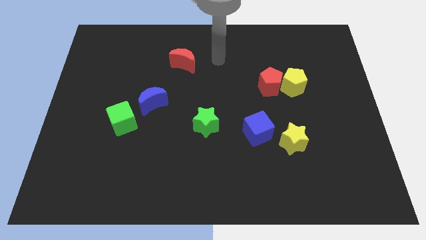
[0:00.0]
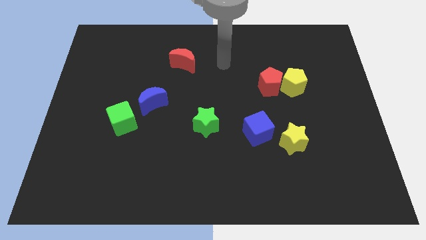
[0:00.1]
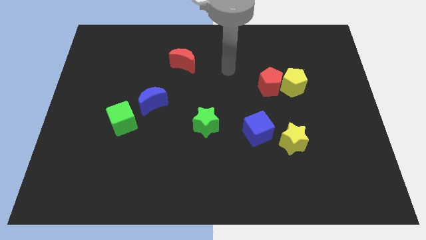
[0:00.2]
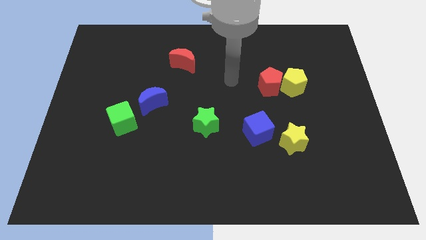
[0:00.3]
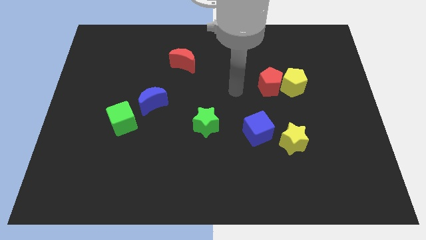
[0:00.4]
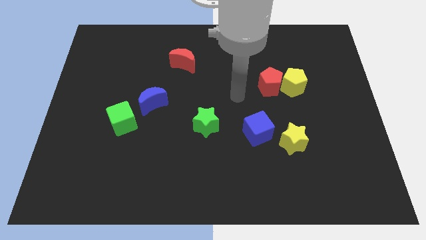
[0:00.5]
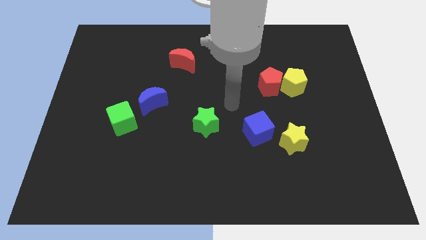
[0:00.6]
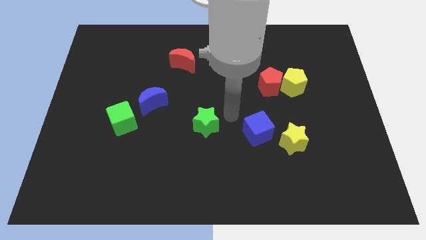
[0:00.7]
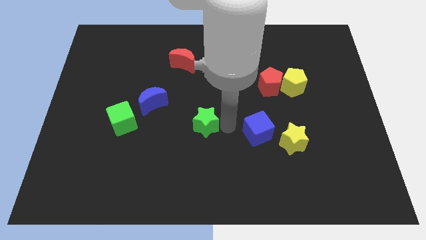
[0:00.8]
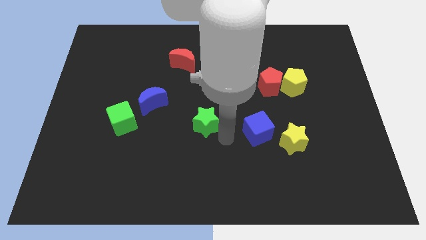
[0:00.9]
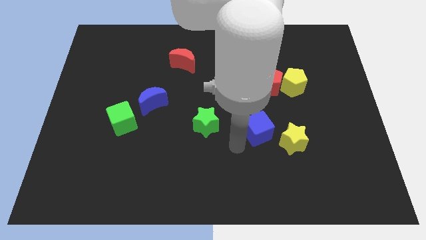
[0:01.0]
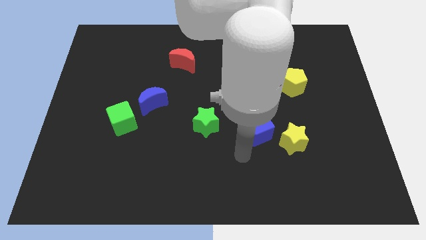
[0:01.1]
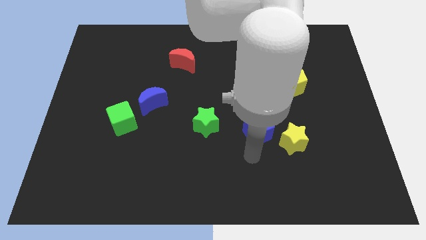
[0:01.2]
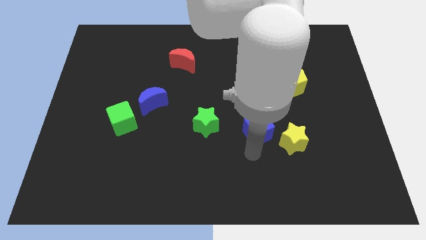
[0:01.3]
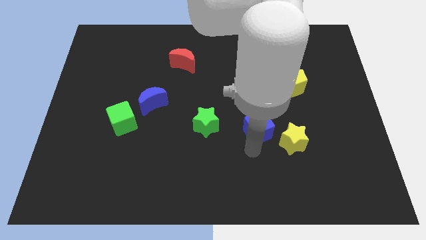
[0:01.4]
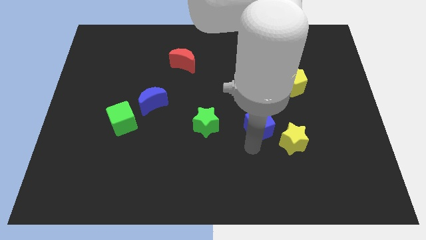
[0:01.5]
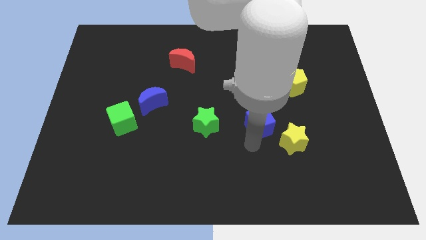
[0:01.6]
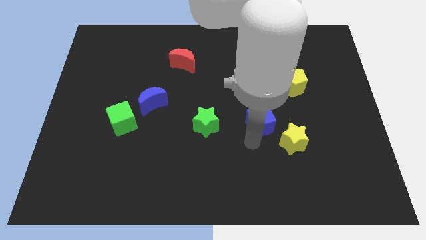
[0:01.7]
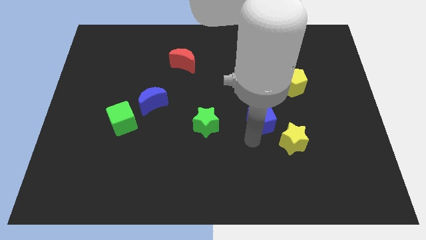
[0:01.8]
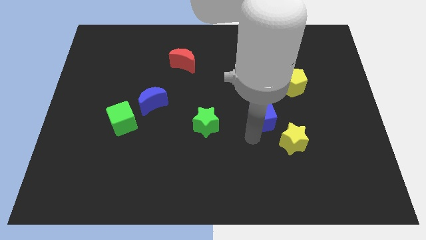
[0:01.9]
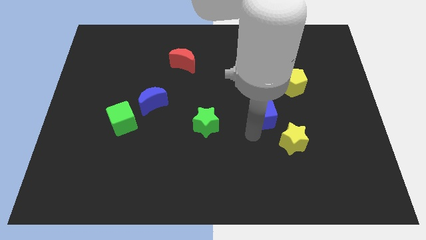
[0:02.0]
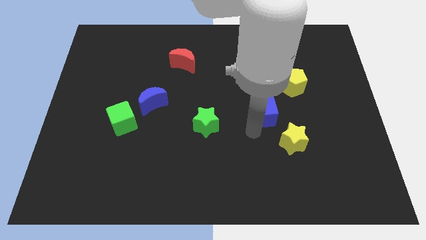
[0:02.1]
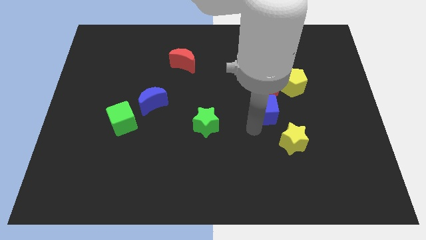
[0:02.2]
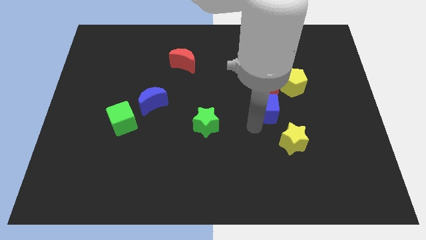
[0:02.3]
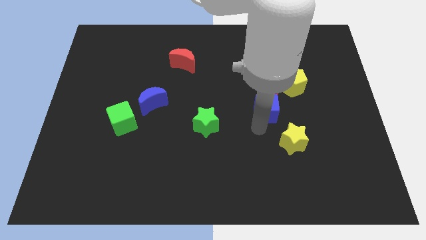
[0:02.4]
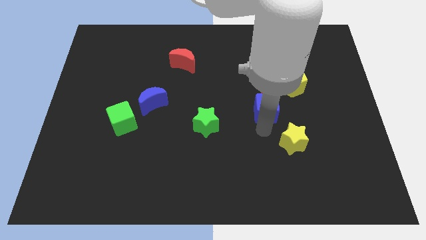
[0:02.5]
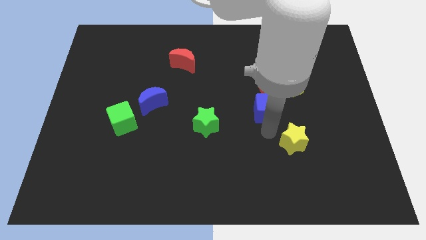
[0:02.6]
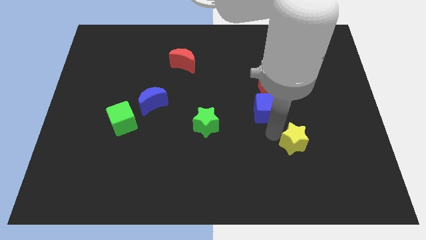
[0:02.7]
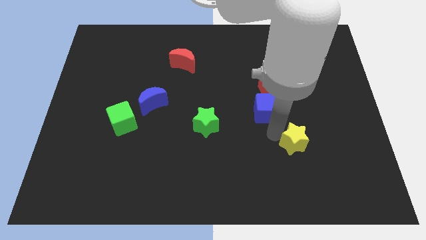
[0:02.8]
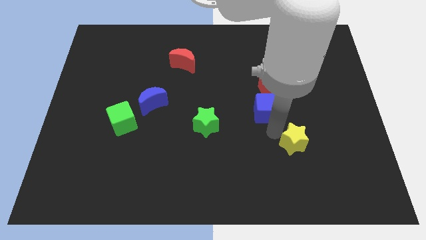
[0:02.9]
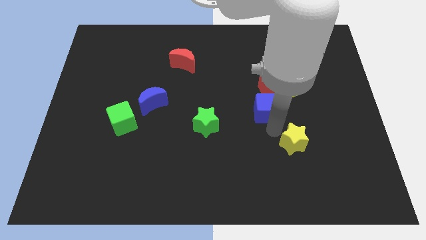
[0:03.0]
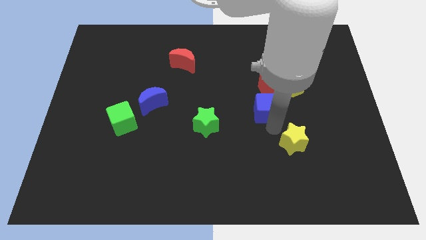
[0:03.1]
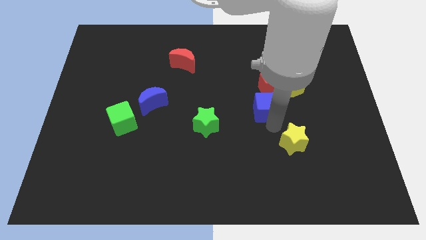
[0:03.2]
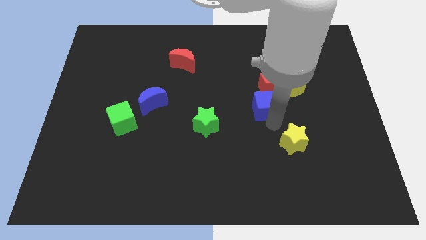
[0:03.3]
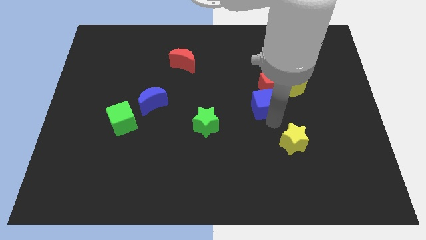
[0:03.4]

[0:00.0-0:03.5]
slightly move the blue cube upwards

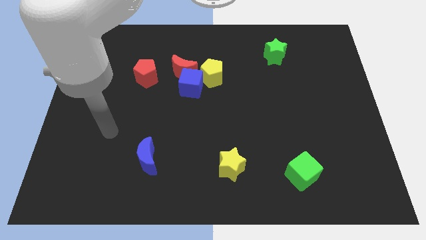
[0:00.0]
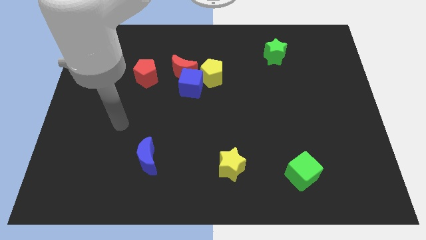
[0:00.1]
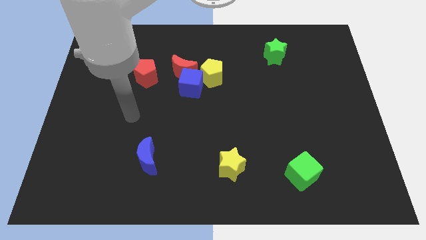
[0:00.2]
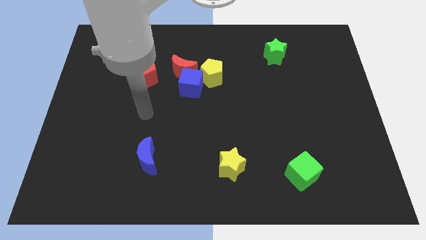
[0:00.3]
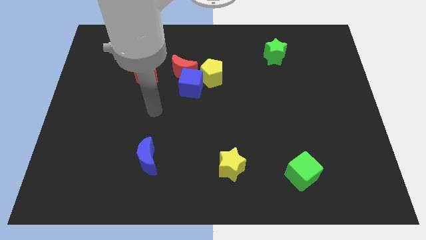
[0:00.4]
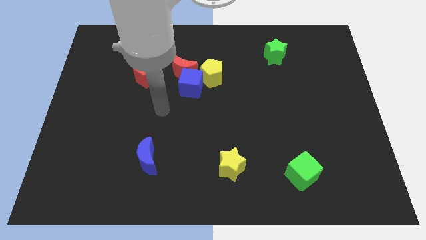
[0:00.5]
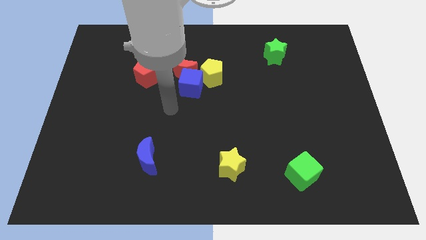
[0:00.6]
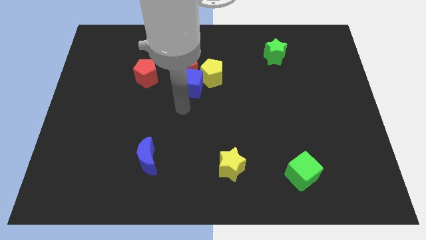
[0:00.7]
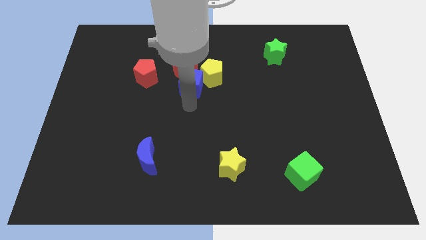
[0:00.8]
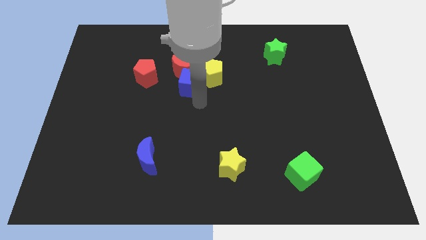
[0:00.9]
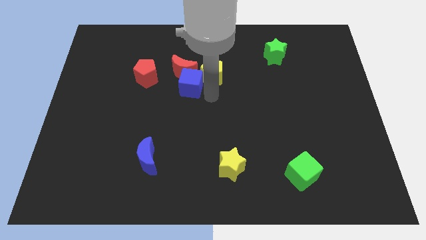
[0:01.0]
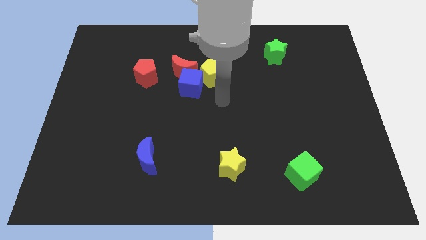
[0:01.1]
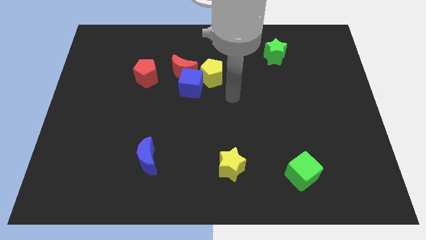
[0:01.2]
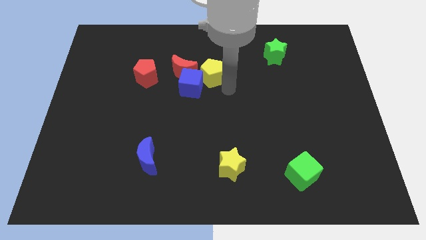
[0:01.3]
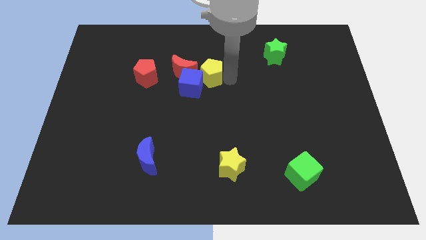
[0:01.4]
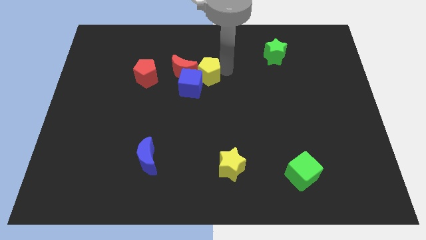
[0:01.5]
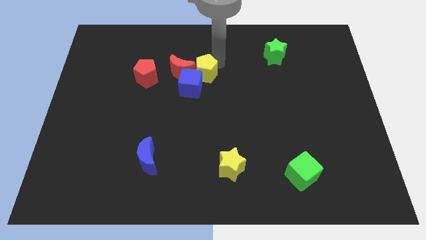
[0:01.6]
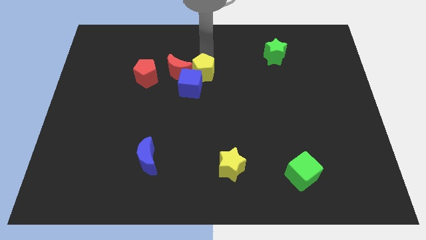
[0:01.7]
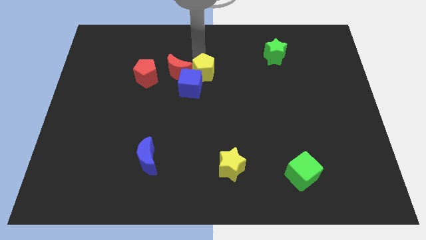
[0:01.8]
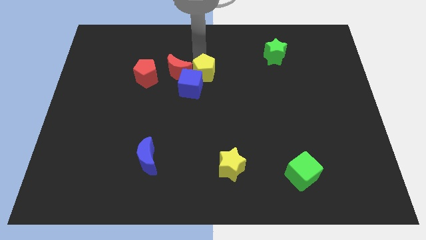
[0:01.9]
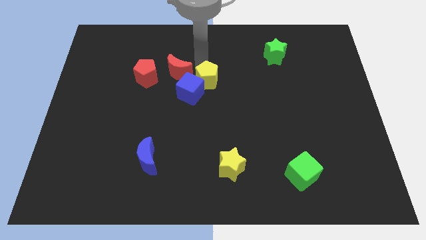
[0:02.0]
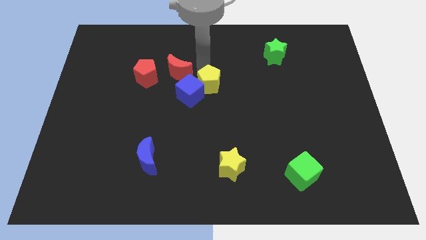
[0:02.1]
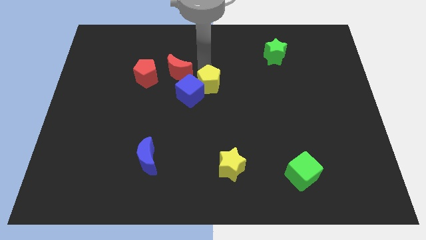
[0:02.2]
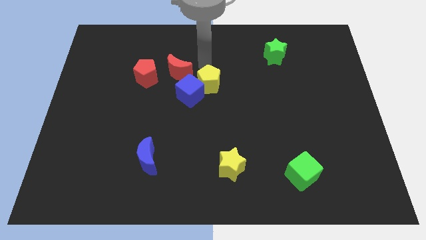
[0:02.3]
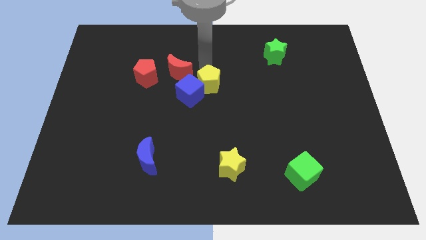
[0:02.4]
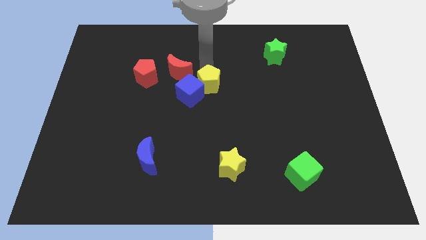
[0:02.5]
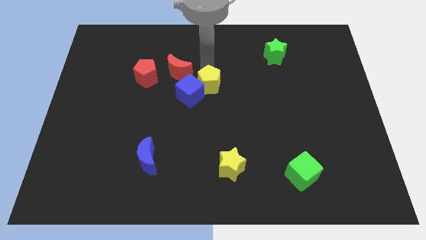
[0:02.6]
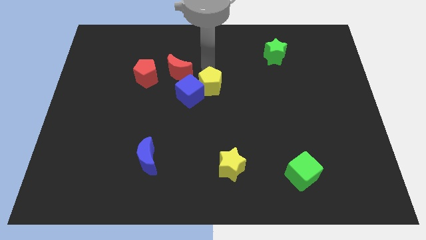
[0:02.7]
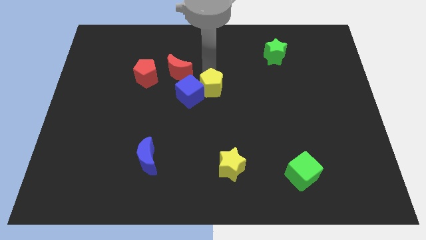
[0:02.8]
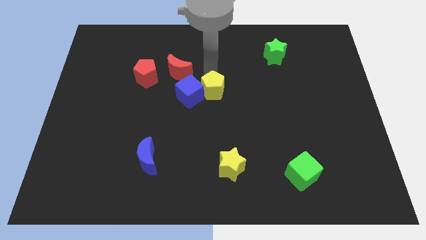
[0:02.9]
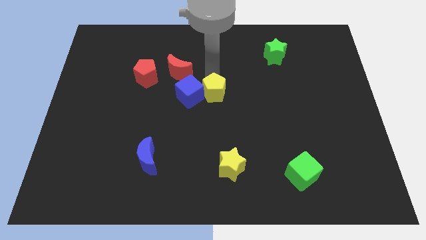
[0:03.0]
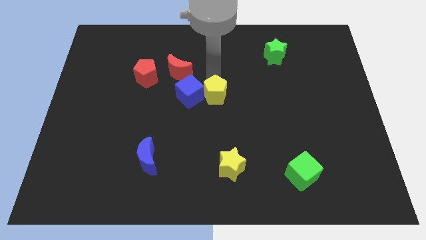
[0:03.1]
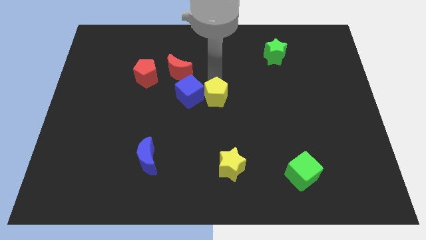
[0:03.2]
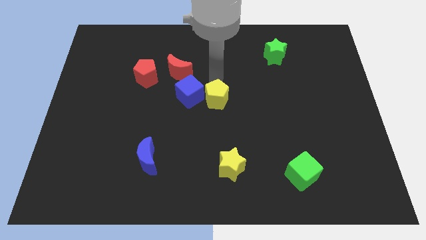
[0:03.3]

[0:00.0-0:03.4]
slightly move the yellow pentagon downwards

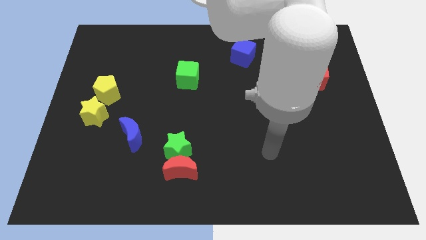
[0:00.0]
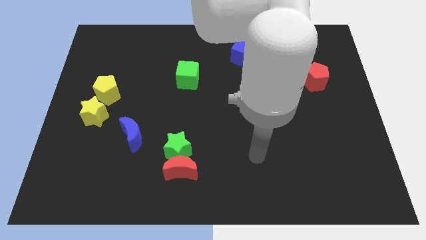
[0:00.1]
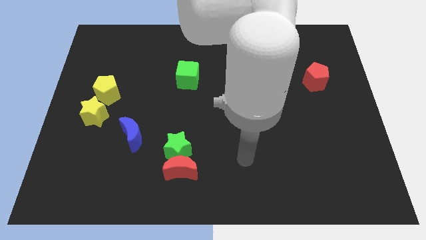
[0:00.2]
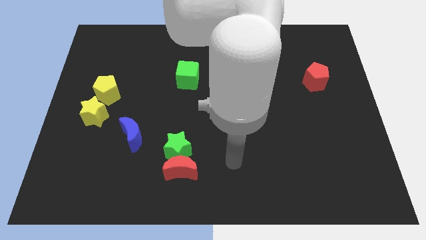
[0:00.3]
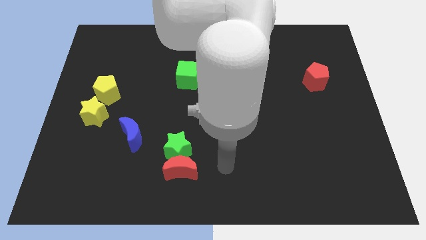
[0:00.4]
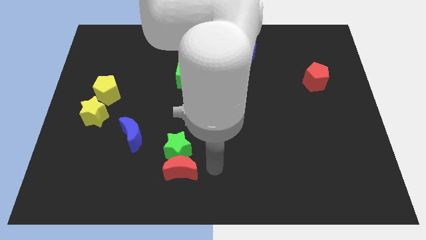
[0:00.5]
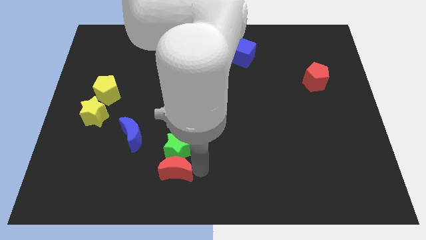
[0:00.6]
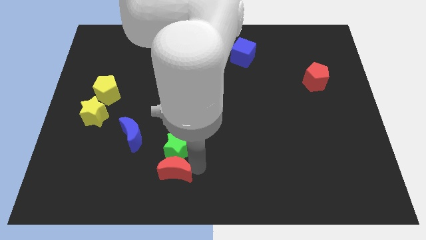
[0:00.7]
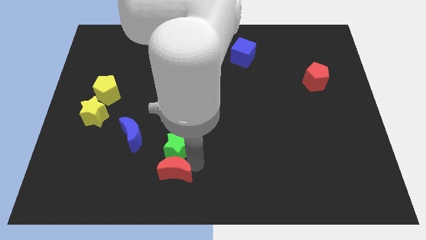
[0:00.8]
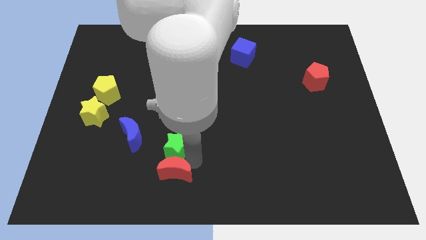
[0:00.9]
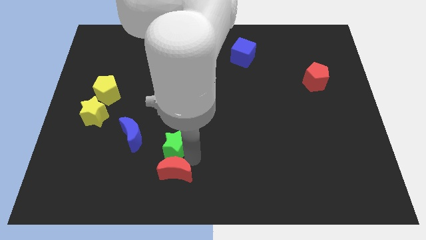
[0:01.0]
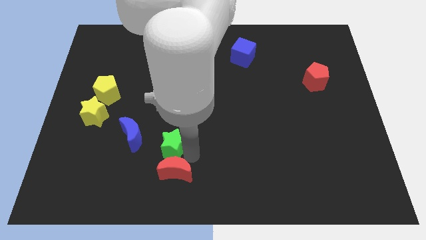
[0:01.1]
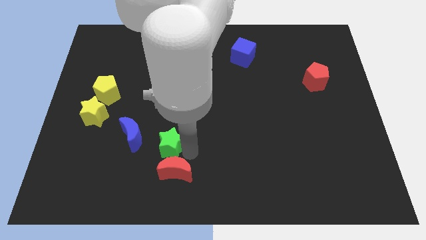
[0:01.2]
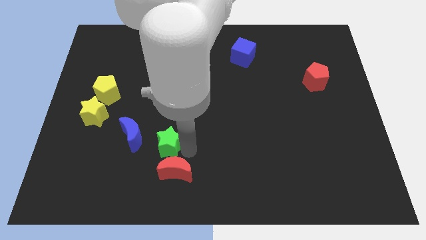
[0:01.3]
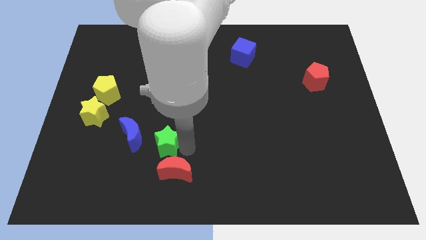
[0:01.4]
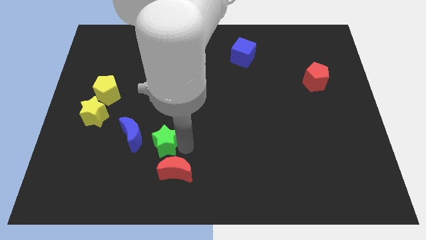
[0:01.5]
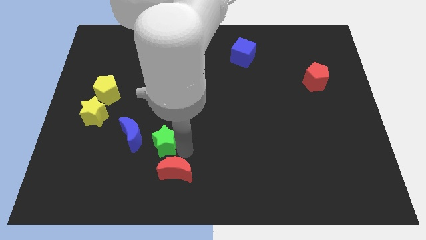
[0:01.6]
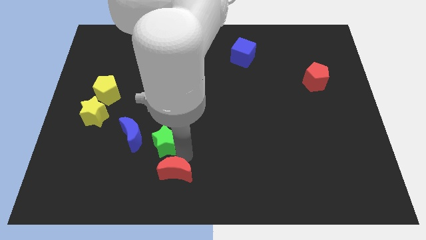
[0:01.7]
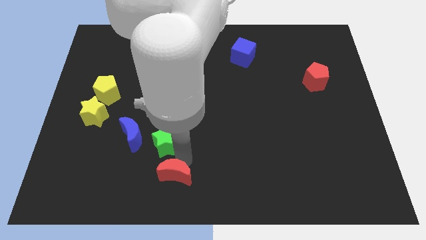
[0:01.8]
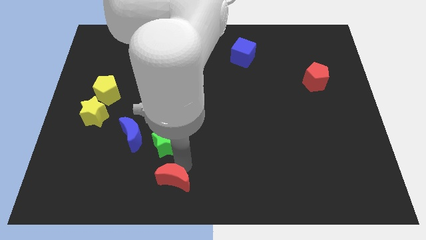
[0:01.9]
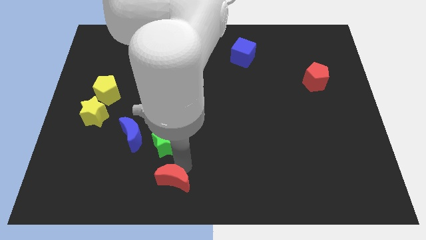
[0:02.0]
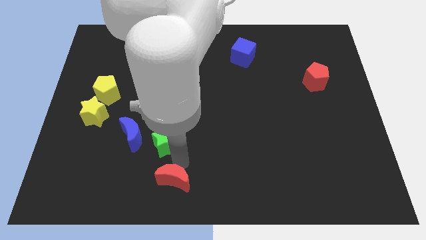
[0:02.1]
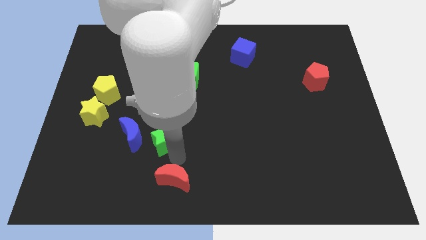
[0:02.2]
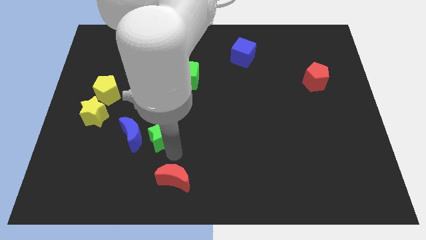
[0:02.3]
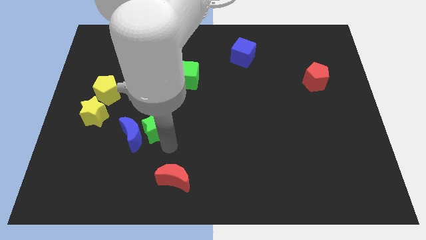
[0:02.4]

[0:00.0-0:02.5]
slightly slide the green star up and to the left
